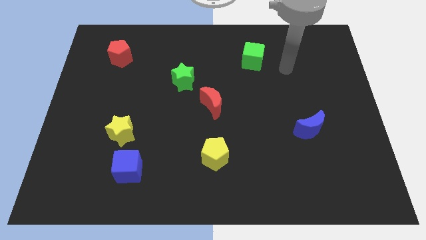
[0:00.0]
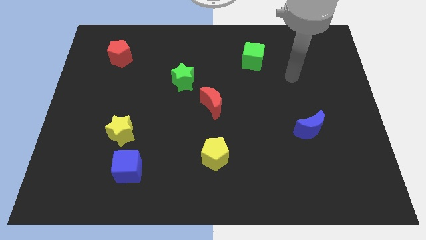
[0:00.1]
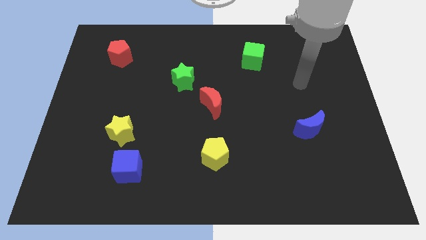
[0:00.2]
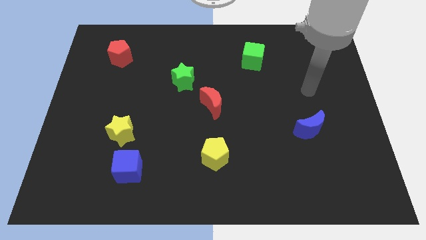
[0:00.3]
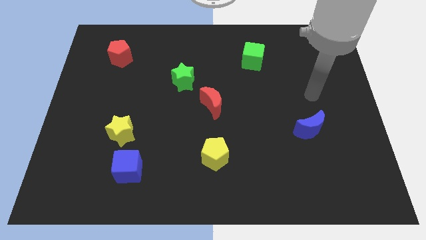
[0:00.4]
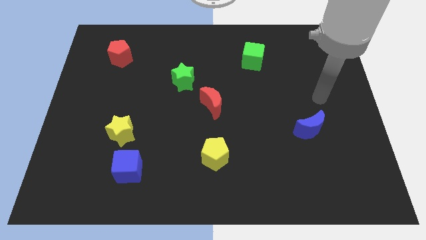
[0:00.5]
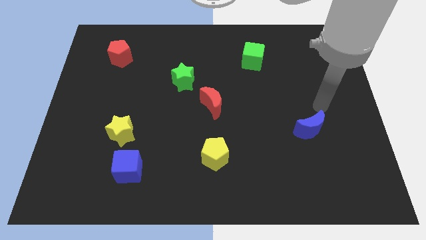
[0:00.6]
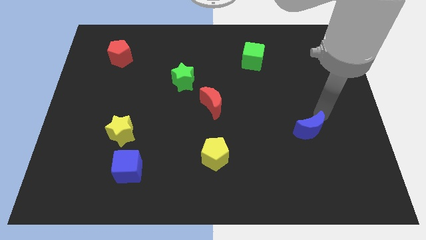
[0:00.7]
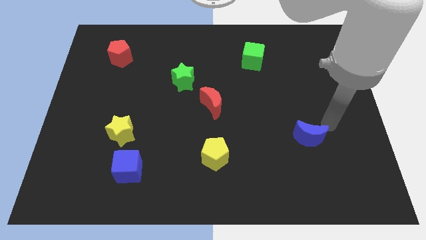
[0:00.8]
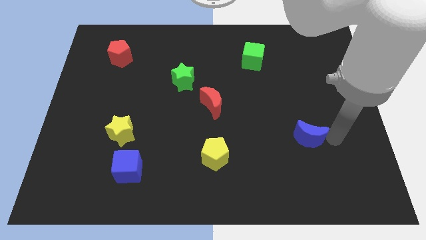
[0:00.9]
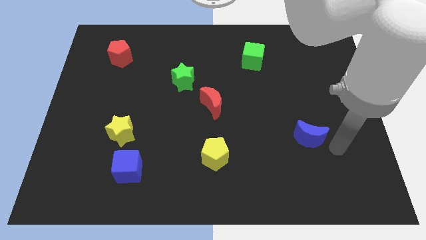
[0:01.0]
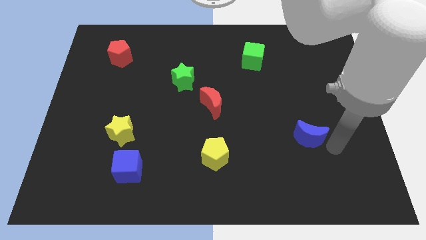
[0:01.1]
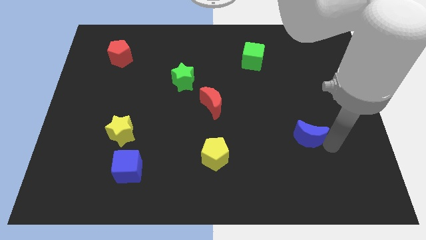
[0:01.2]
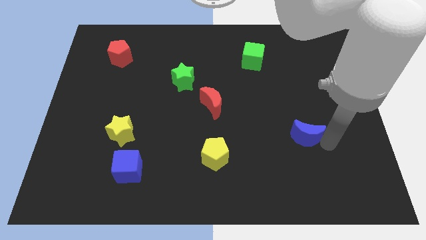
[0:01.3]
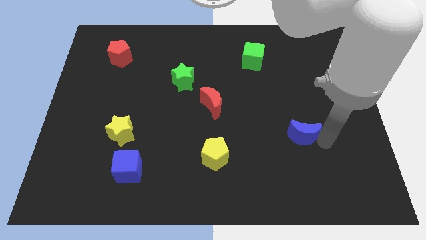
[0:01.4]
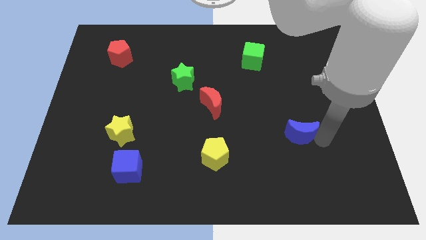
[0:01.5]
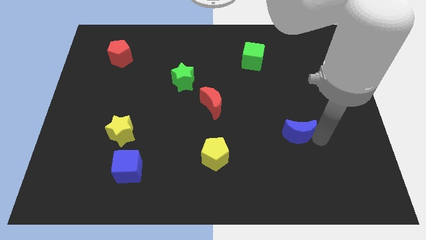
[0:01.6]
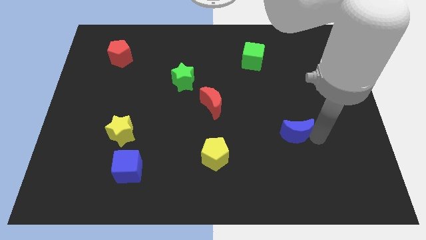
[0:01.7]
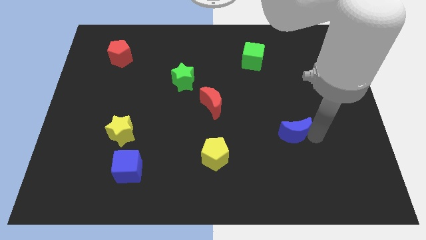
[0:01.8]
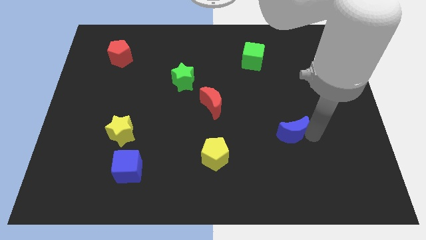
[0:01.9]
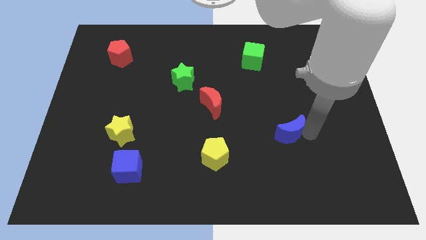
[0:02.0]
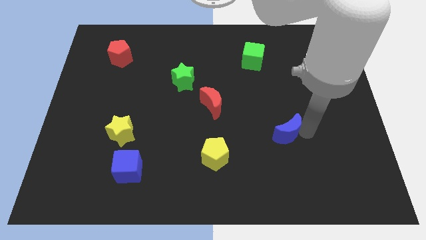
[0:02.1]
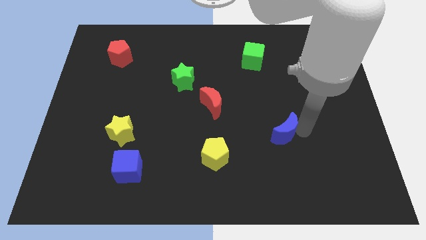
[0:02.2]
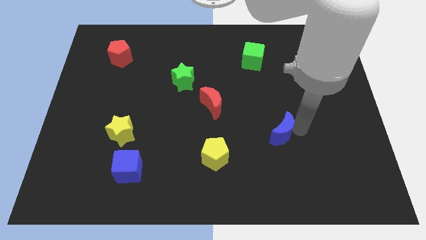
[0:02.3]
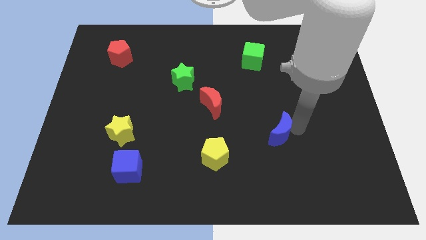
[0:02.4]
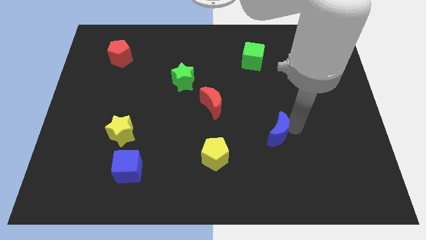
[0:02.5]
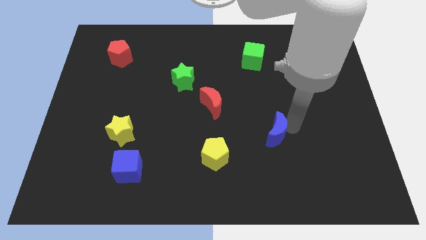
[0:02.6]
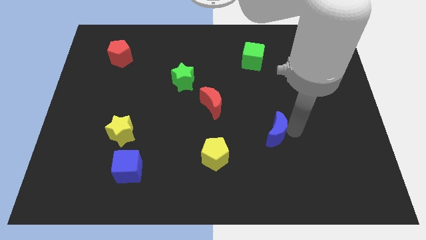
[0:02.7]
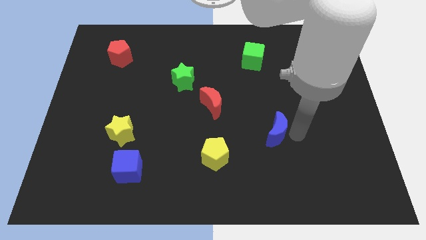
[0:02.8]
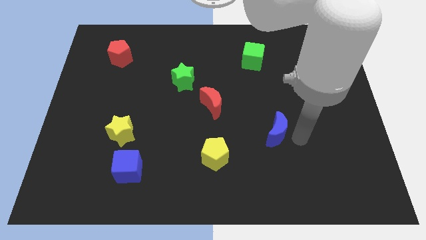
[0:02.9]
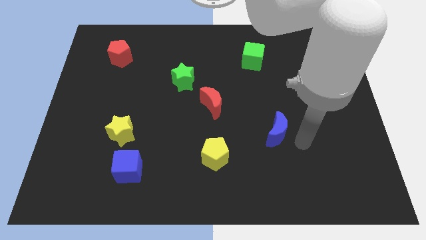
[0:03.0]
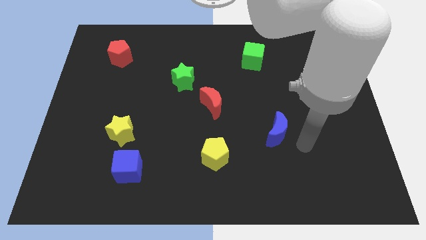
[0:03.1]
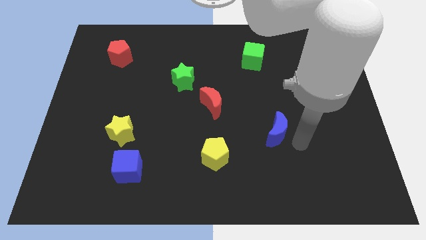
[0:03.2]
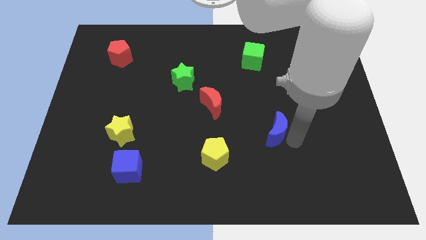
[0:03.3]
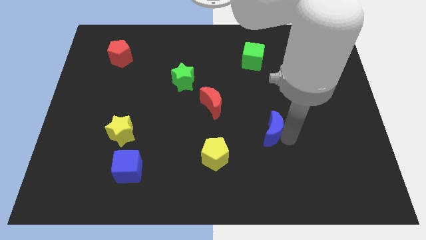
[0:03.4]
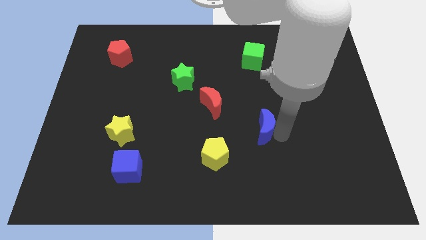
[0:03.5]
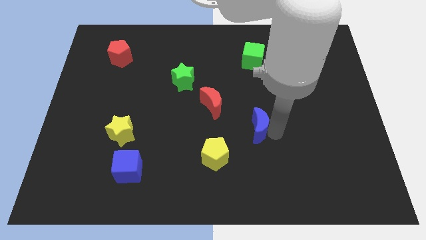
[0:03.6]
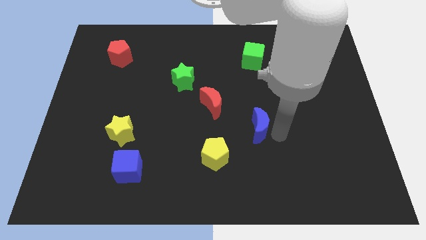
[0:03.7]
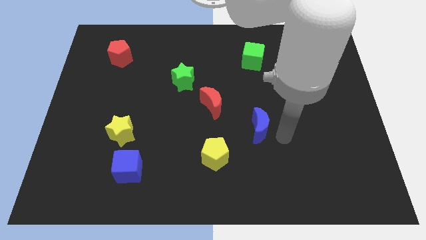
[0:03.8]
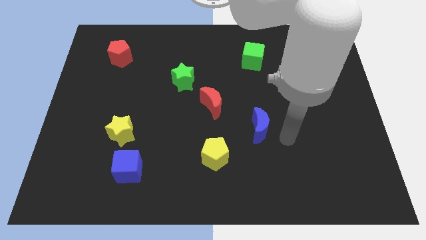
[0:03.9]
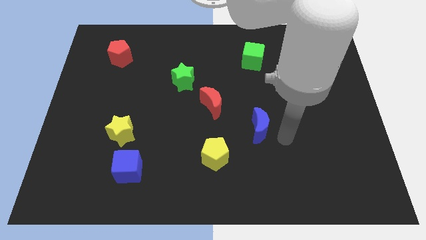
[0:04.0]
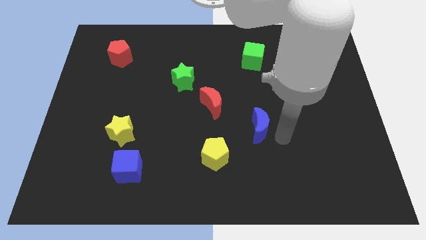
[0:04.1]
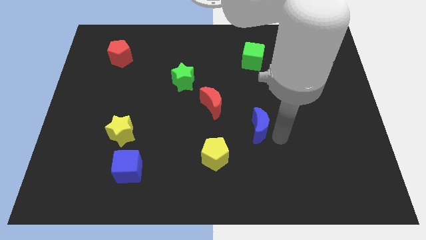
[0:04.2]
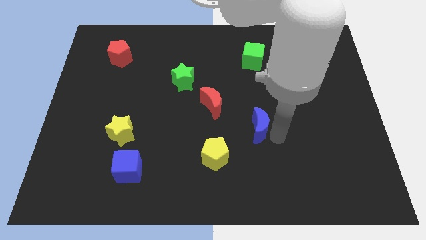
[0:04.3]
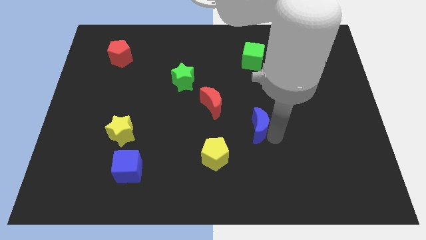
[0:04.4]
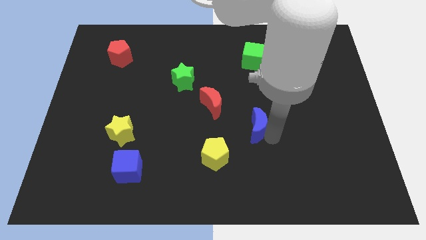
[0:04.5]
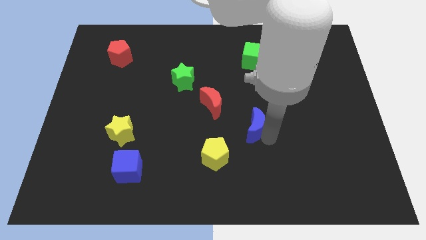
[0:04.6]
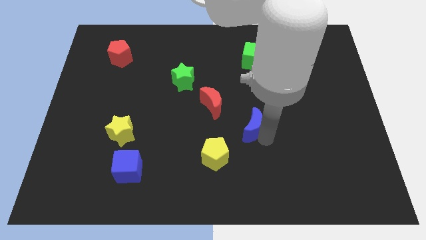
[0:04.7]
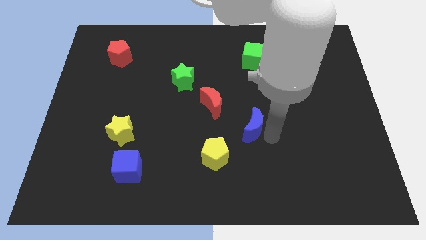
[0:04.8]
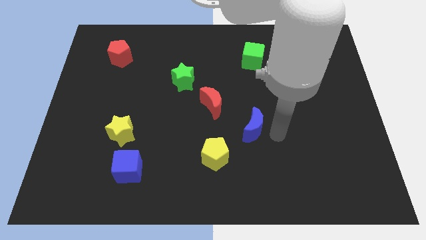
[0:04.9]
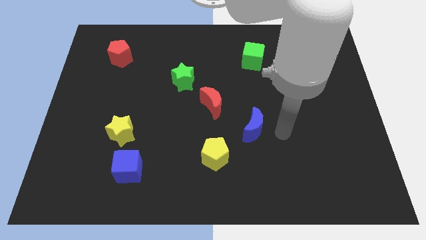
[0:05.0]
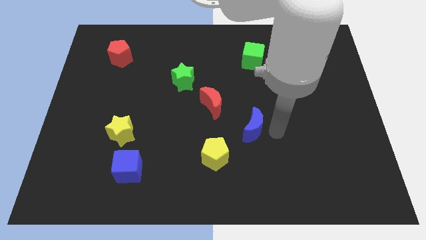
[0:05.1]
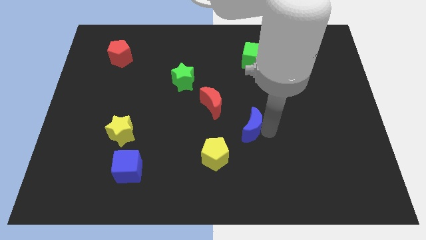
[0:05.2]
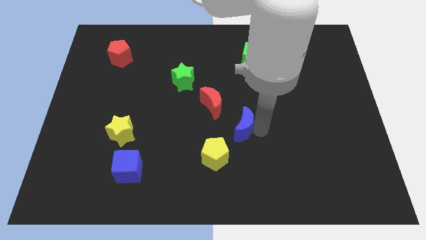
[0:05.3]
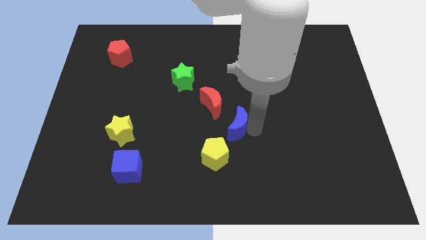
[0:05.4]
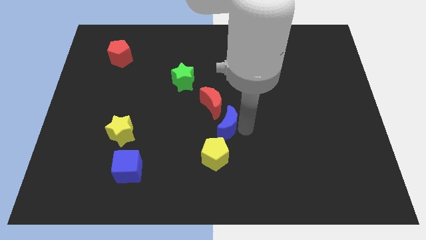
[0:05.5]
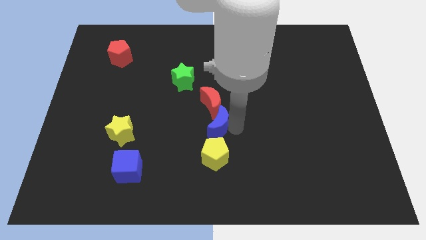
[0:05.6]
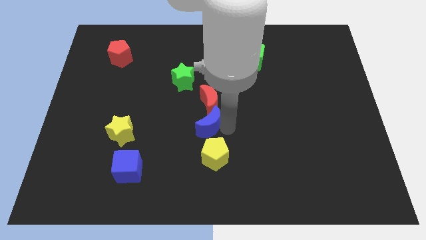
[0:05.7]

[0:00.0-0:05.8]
move the blue moon to the bottom left of the red moon

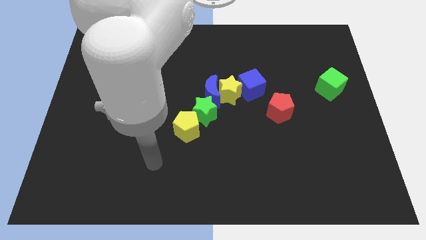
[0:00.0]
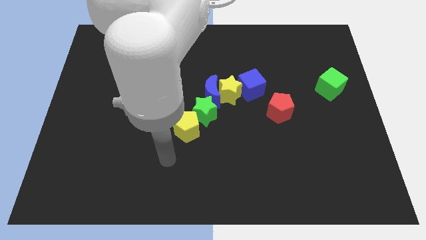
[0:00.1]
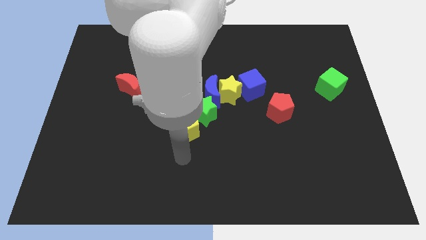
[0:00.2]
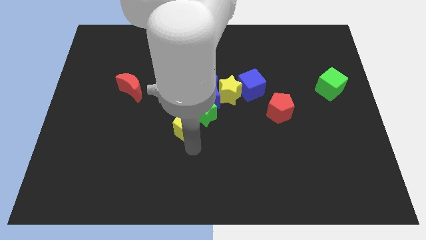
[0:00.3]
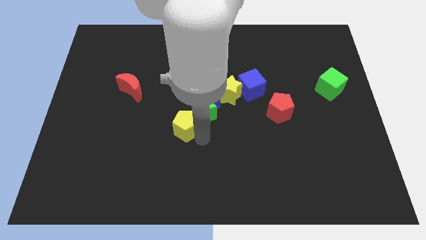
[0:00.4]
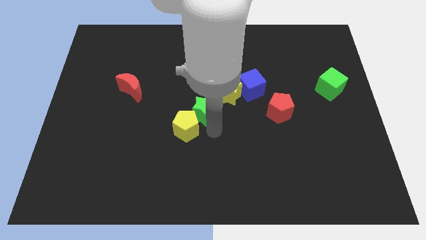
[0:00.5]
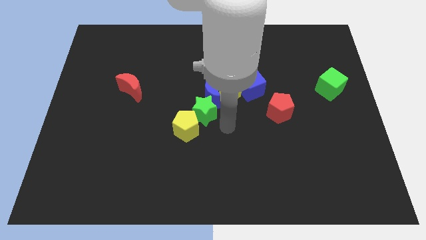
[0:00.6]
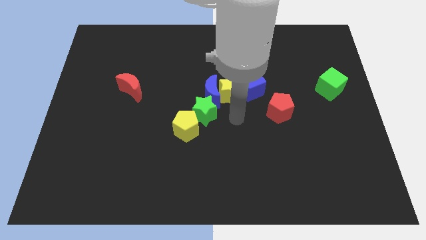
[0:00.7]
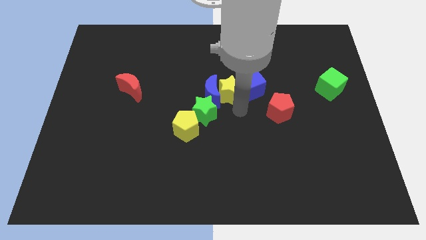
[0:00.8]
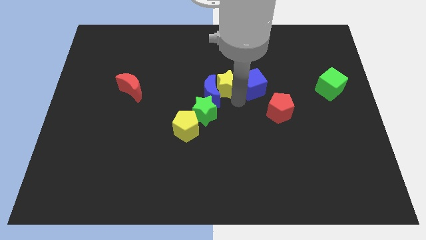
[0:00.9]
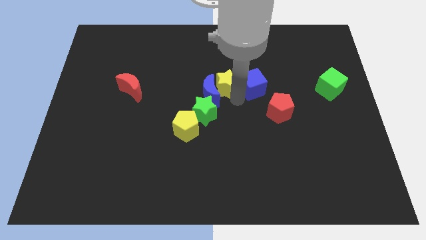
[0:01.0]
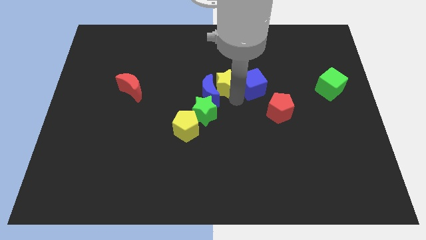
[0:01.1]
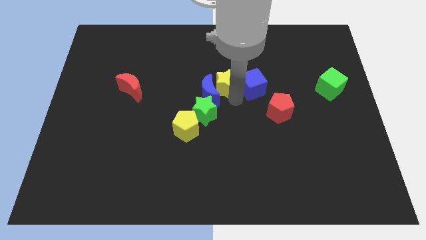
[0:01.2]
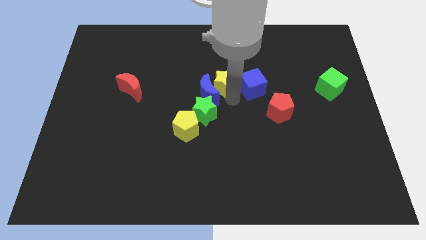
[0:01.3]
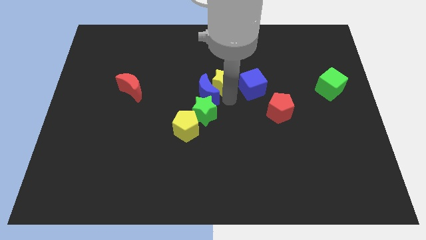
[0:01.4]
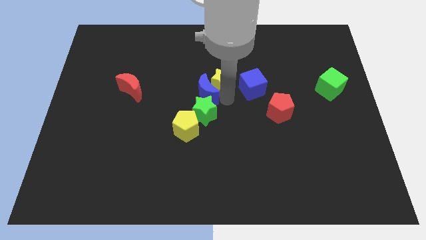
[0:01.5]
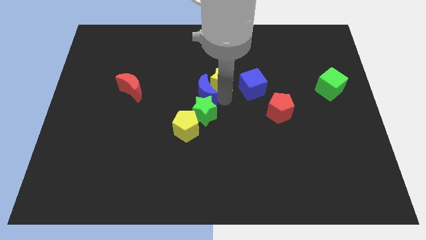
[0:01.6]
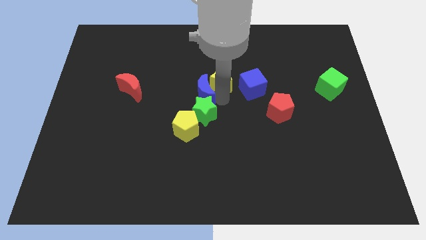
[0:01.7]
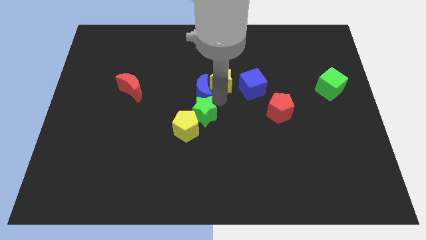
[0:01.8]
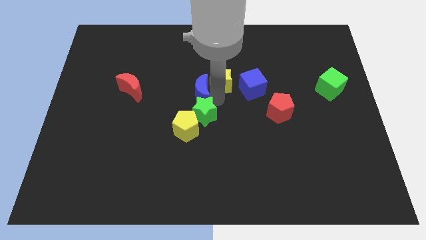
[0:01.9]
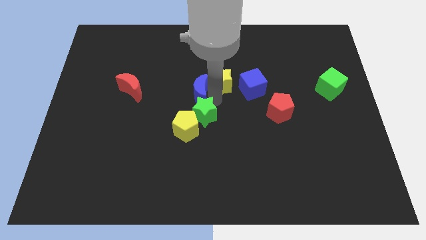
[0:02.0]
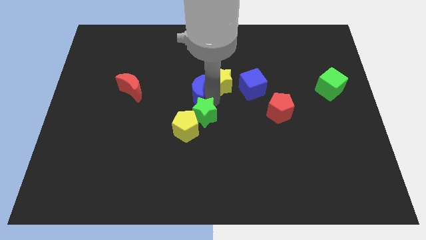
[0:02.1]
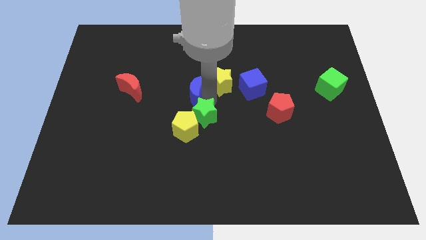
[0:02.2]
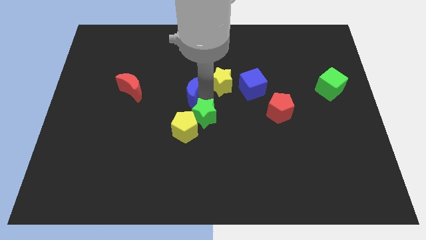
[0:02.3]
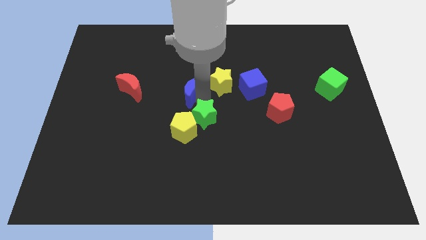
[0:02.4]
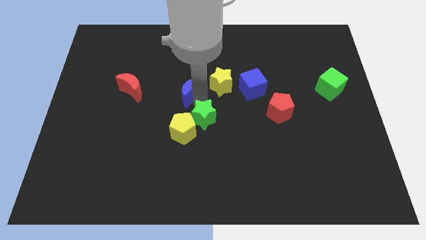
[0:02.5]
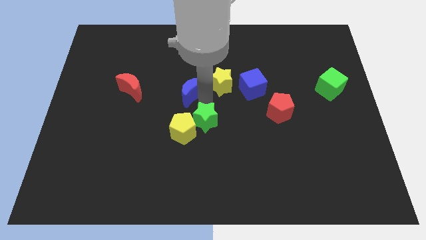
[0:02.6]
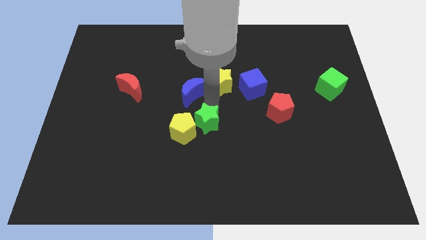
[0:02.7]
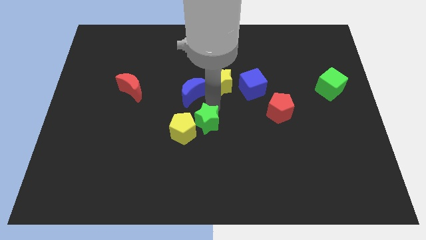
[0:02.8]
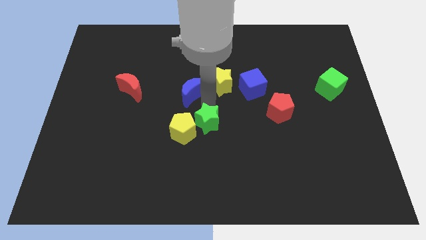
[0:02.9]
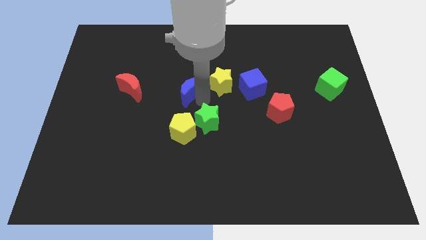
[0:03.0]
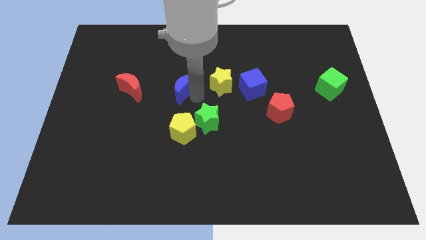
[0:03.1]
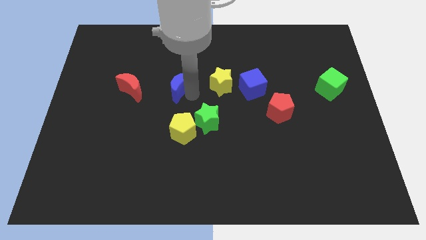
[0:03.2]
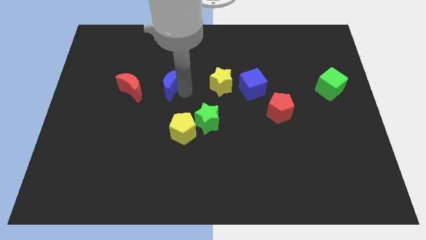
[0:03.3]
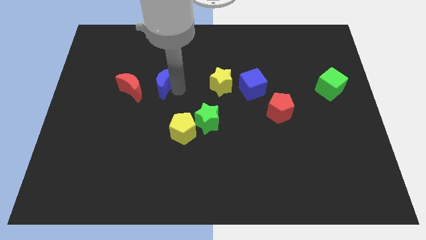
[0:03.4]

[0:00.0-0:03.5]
slide the blue moon to the top right of the red moon
